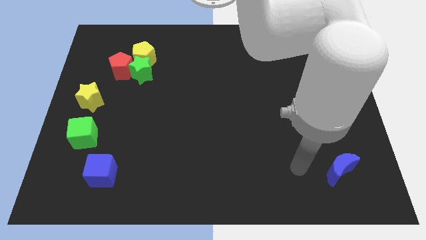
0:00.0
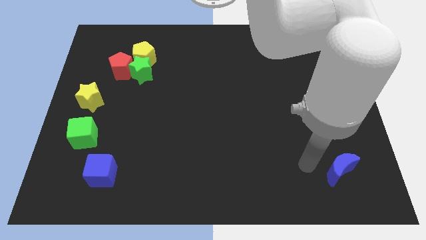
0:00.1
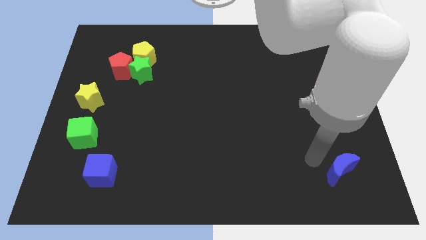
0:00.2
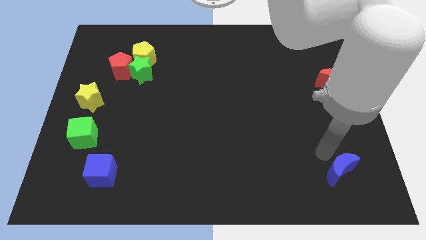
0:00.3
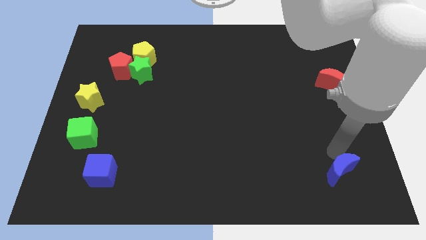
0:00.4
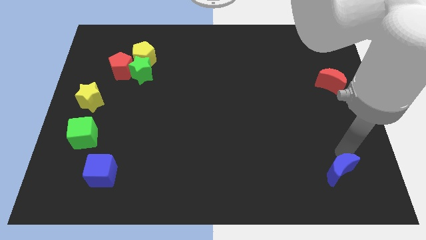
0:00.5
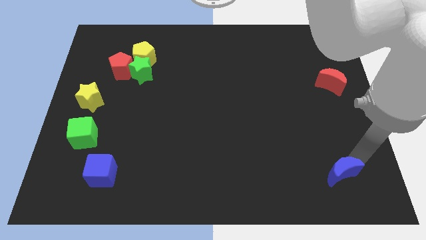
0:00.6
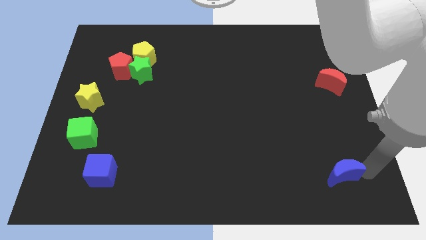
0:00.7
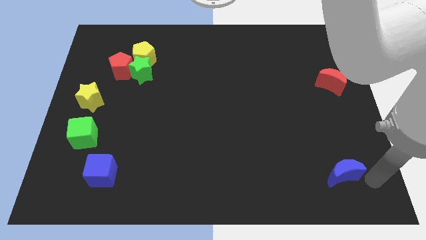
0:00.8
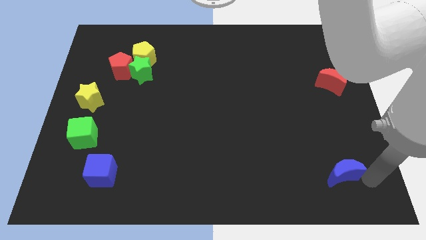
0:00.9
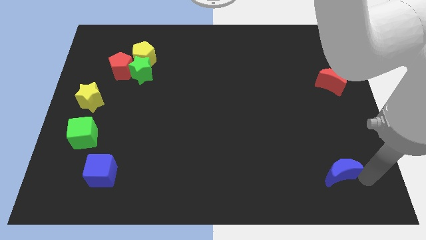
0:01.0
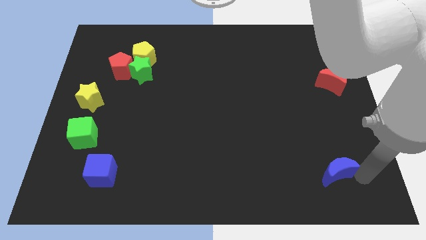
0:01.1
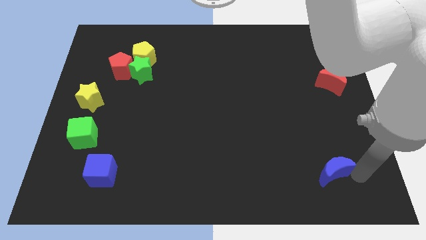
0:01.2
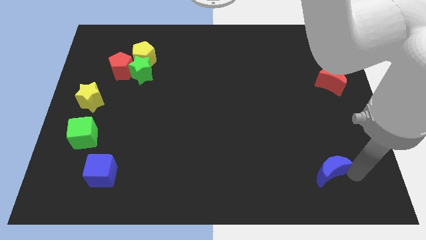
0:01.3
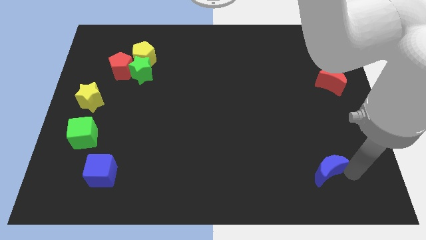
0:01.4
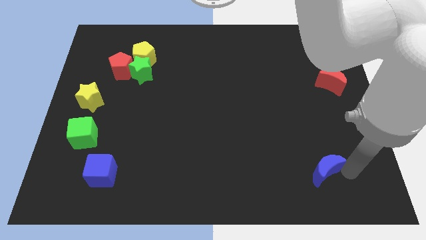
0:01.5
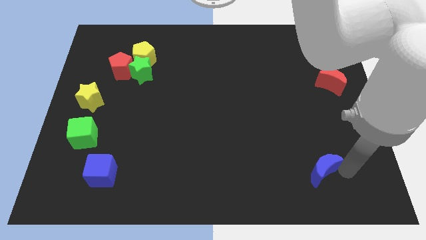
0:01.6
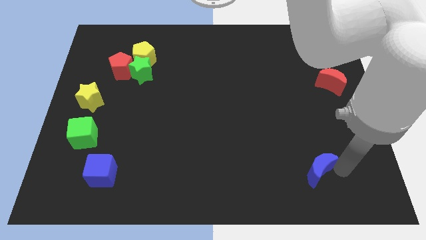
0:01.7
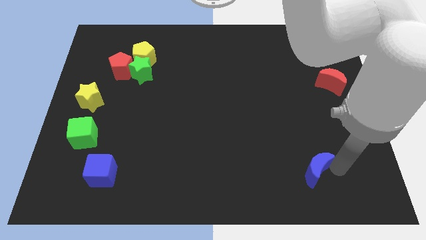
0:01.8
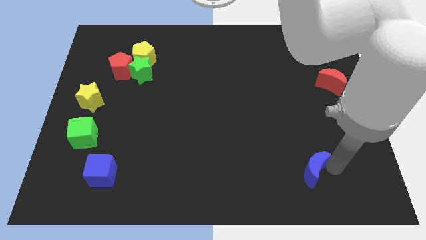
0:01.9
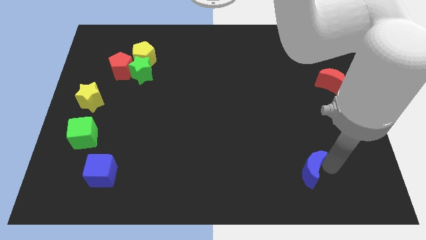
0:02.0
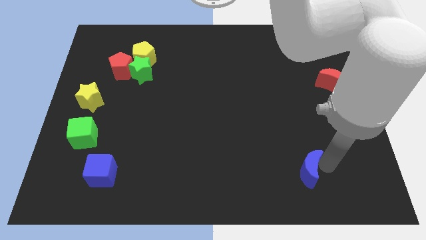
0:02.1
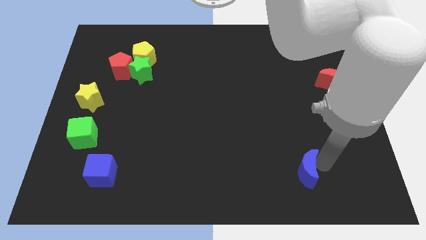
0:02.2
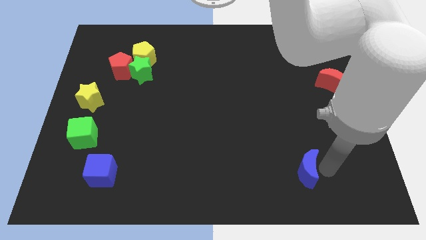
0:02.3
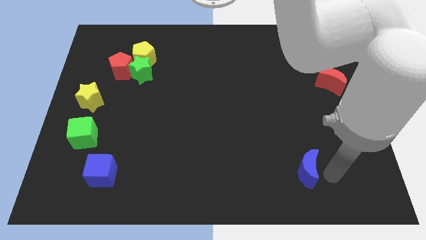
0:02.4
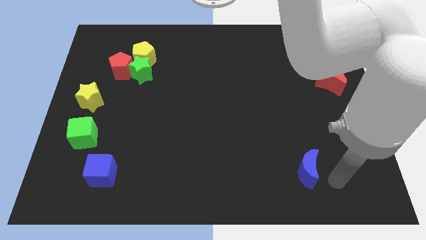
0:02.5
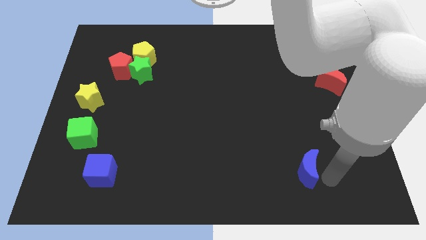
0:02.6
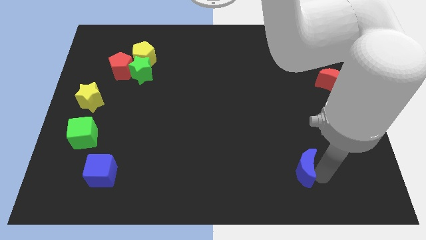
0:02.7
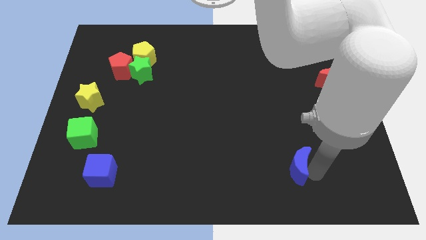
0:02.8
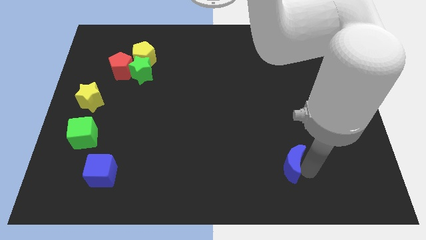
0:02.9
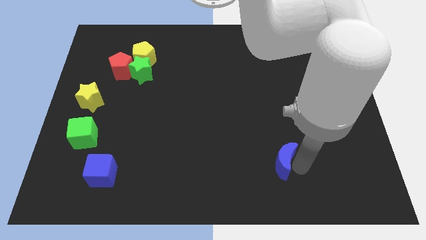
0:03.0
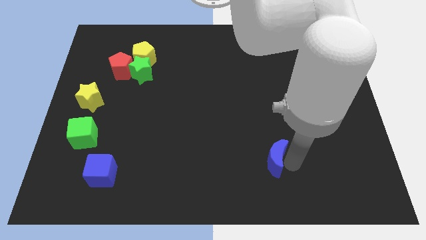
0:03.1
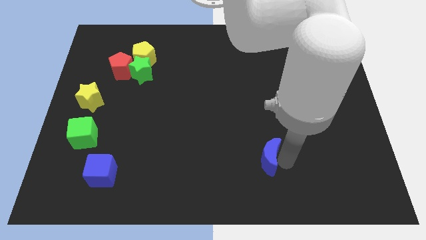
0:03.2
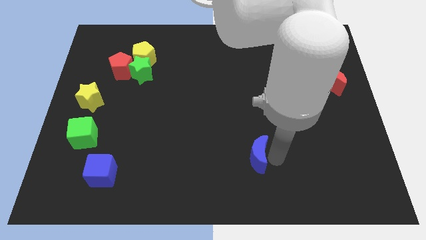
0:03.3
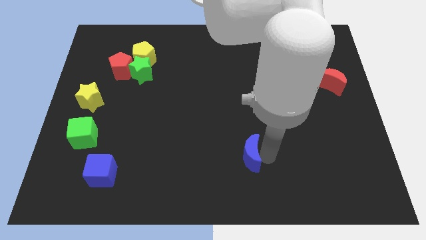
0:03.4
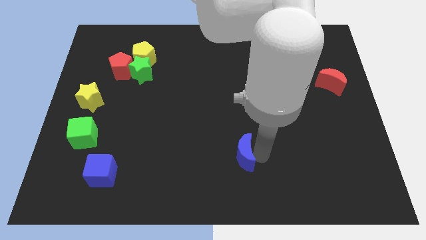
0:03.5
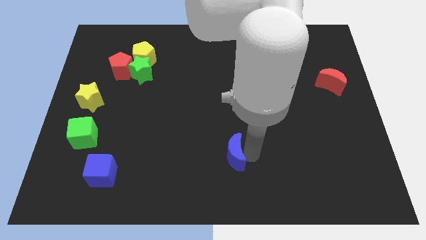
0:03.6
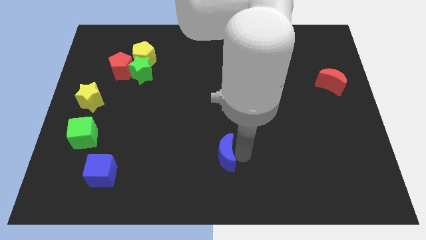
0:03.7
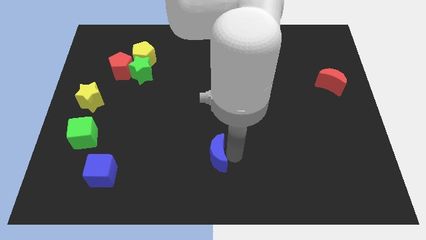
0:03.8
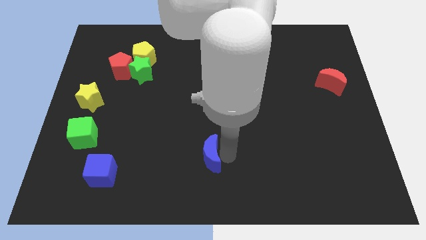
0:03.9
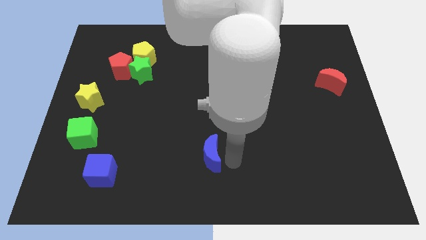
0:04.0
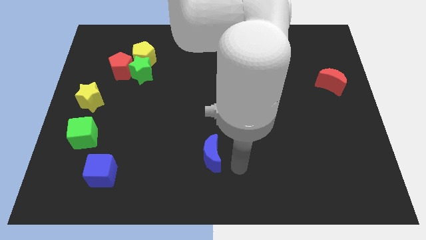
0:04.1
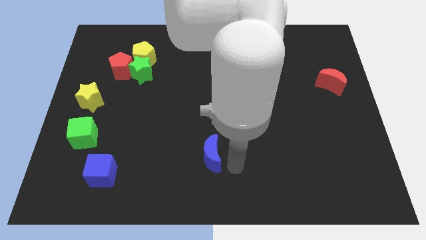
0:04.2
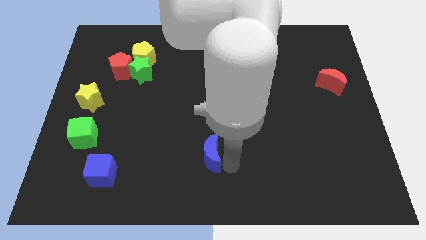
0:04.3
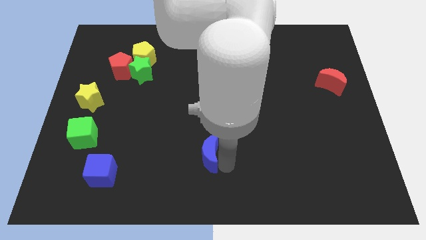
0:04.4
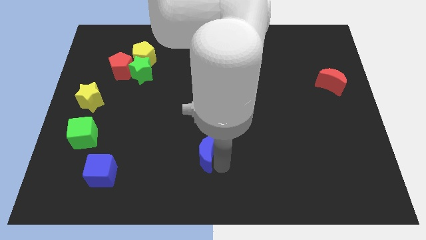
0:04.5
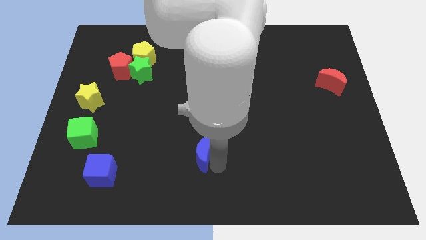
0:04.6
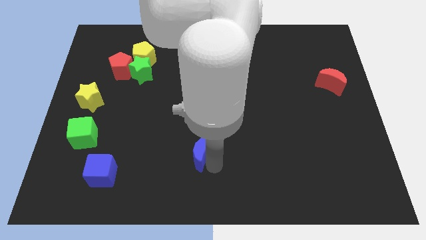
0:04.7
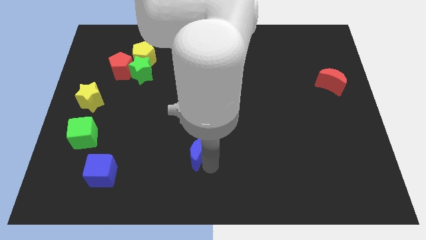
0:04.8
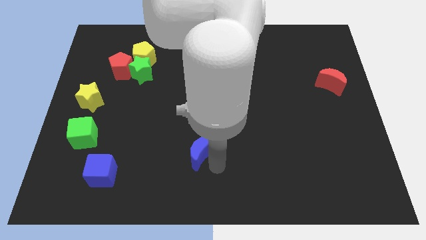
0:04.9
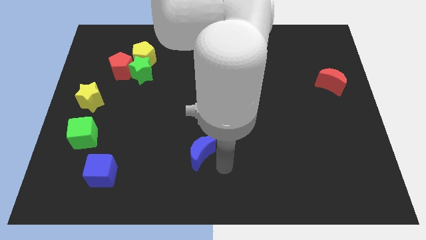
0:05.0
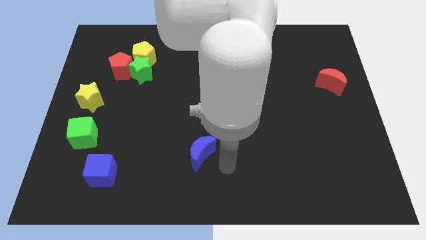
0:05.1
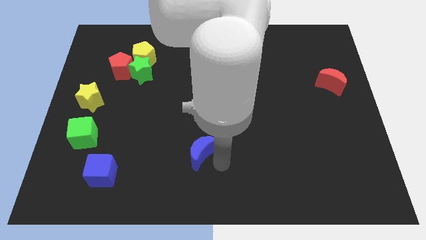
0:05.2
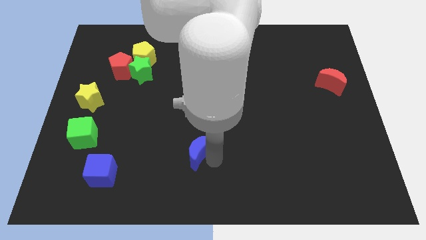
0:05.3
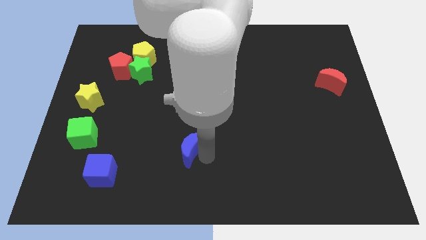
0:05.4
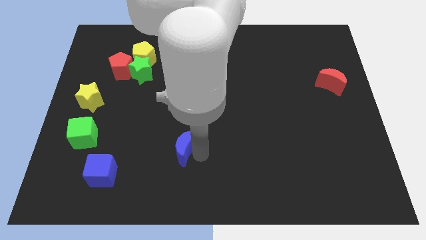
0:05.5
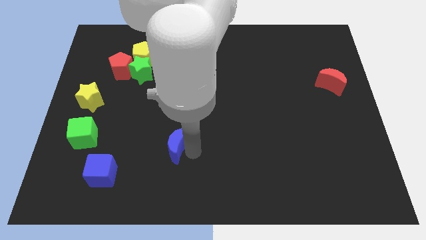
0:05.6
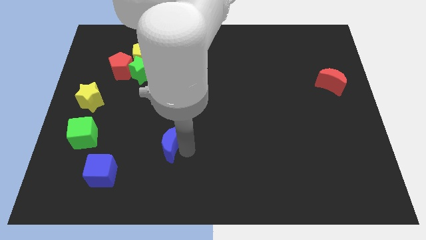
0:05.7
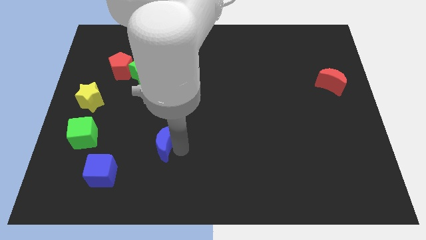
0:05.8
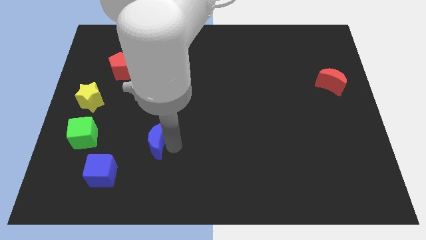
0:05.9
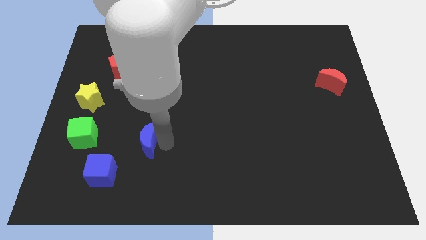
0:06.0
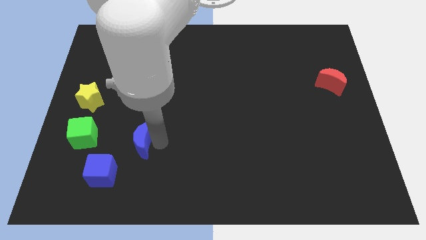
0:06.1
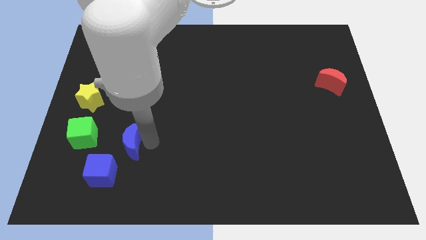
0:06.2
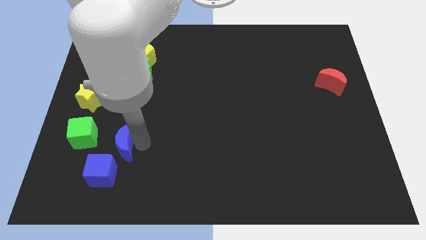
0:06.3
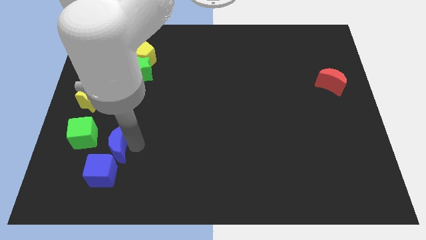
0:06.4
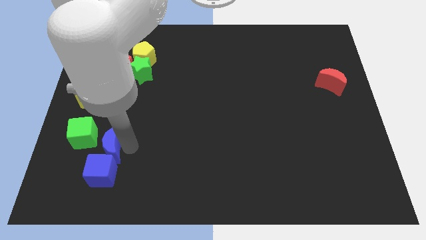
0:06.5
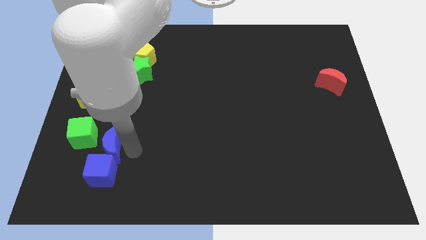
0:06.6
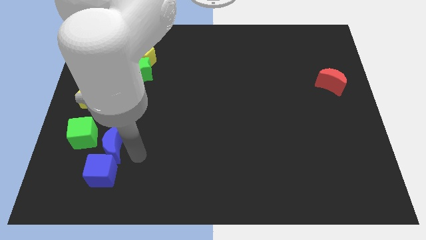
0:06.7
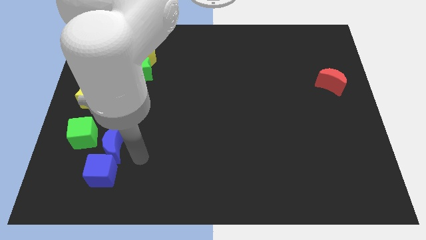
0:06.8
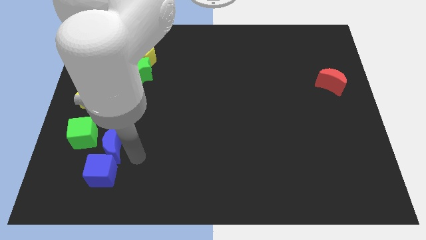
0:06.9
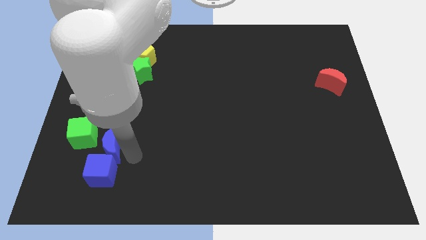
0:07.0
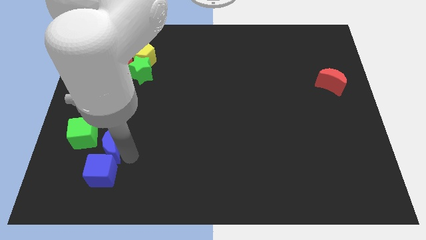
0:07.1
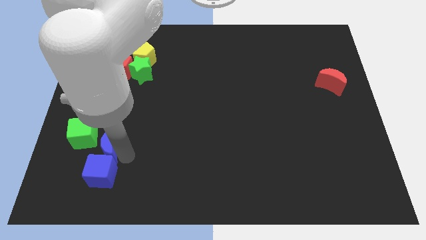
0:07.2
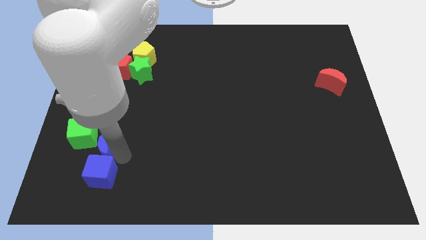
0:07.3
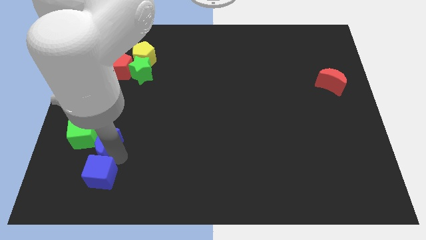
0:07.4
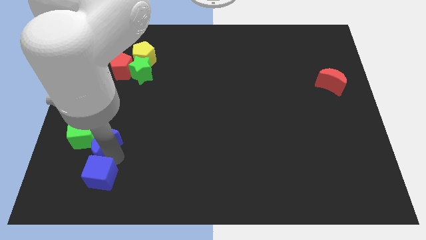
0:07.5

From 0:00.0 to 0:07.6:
move the blue moon next to the green cube
